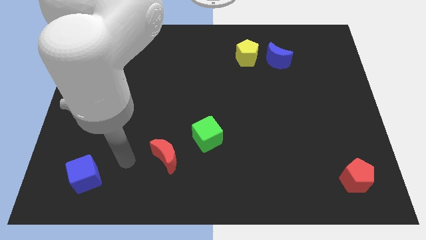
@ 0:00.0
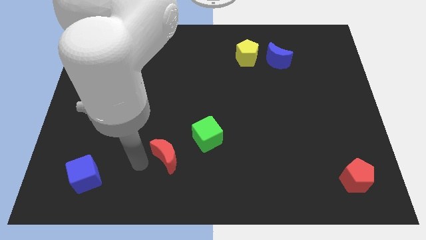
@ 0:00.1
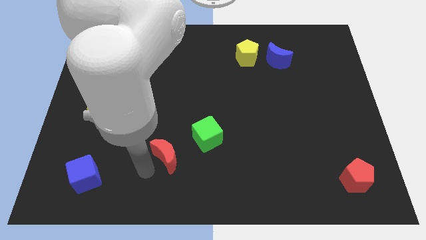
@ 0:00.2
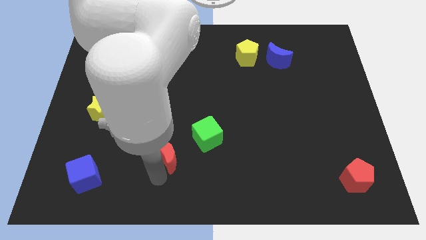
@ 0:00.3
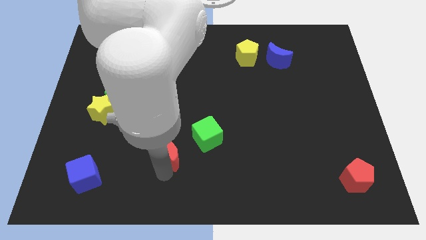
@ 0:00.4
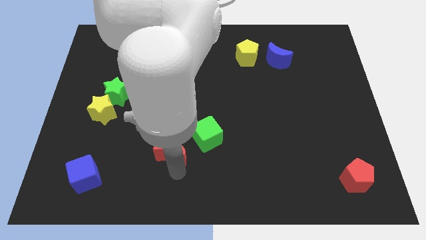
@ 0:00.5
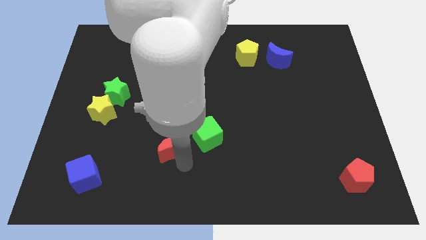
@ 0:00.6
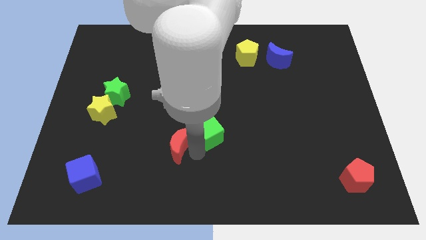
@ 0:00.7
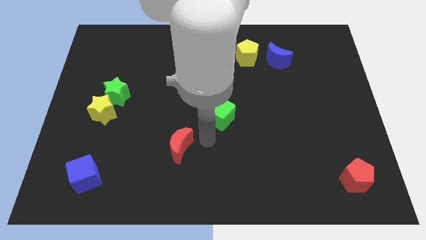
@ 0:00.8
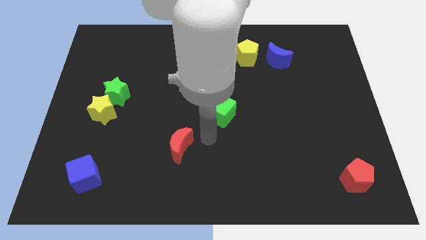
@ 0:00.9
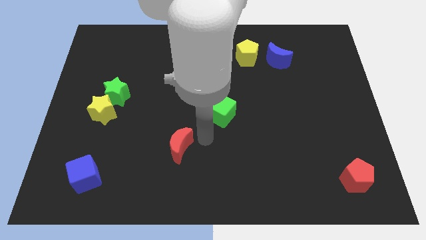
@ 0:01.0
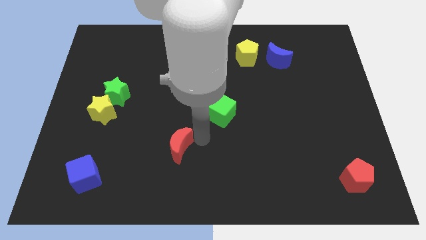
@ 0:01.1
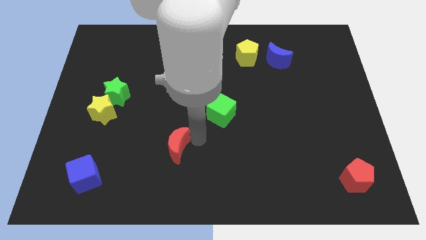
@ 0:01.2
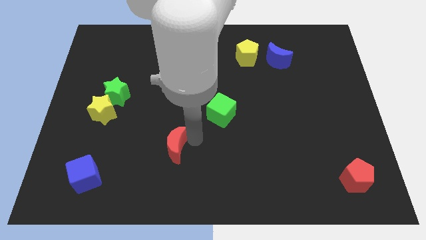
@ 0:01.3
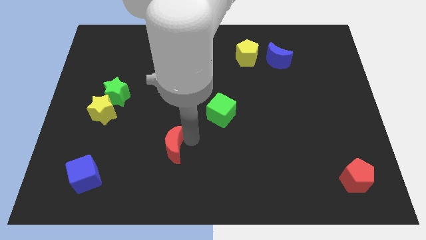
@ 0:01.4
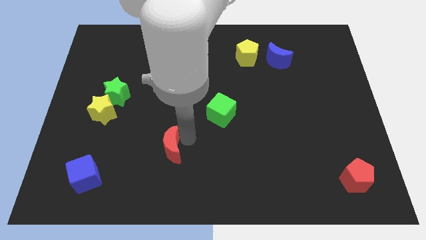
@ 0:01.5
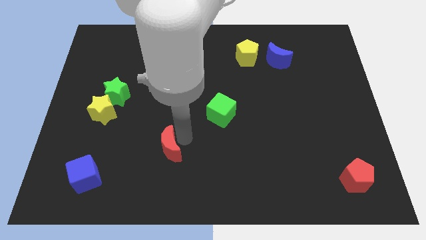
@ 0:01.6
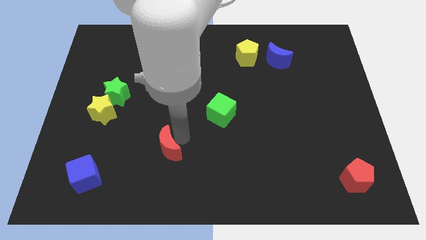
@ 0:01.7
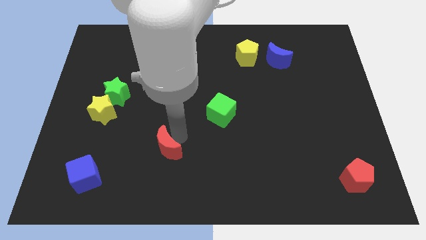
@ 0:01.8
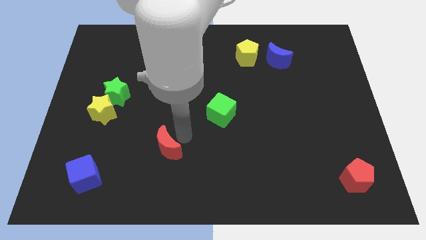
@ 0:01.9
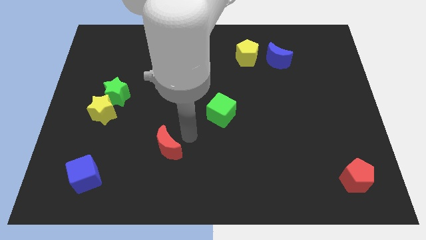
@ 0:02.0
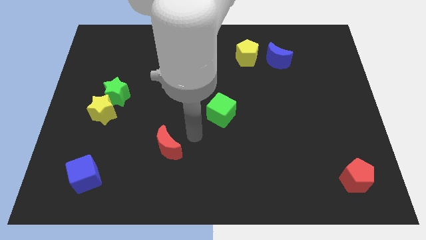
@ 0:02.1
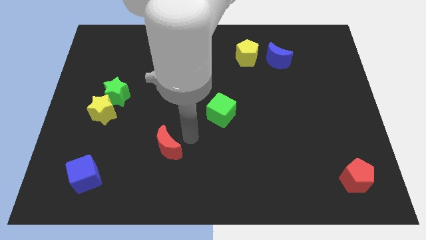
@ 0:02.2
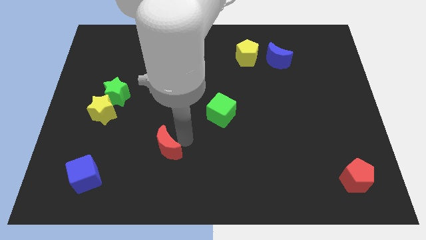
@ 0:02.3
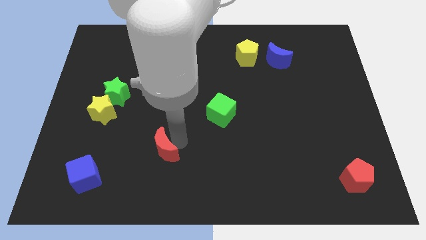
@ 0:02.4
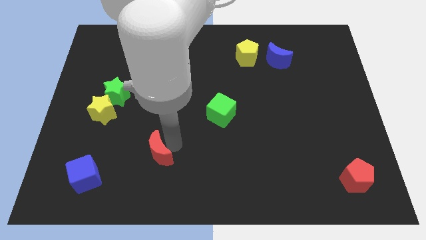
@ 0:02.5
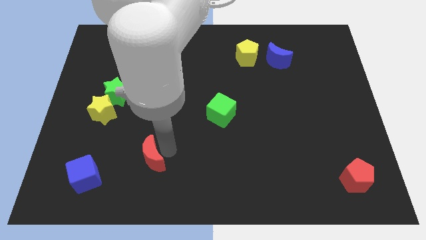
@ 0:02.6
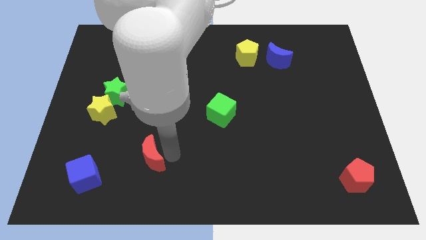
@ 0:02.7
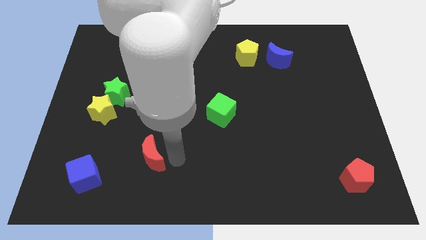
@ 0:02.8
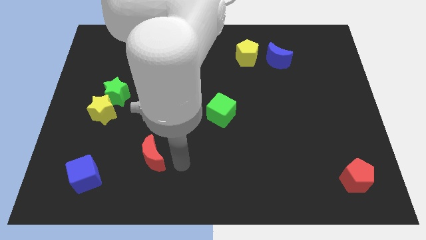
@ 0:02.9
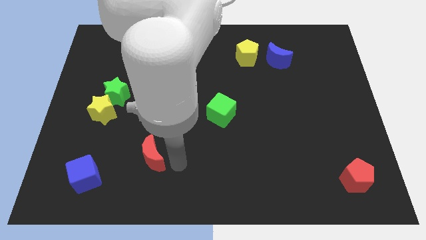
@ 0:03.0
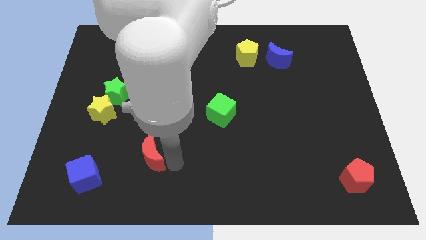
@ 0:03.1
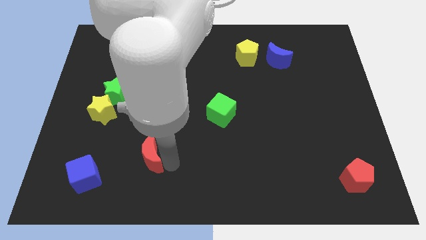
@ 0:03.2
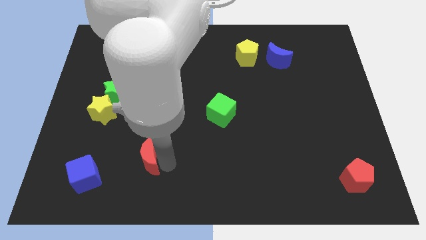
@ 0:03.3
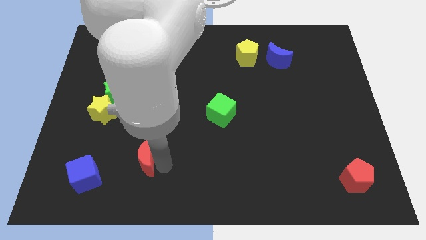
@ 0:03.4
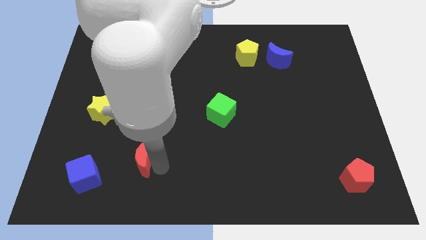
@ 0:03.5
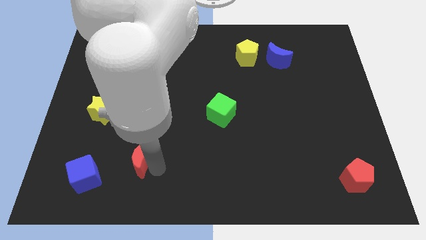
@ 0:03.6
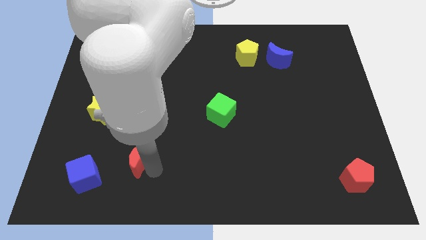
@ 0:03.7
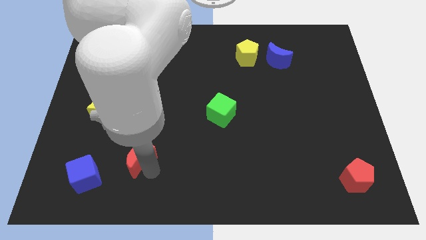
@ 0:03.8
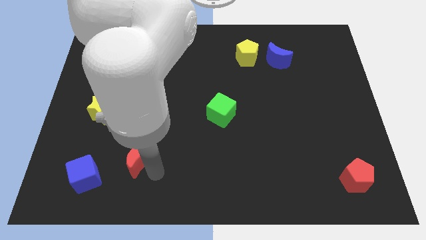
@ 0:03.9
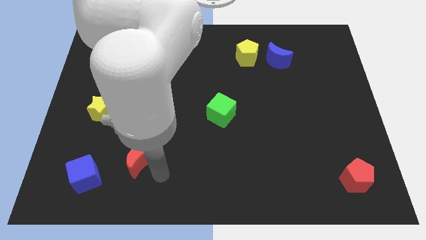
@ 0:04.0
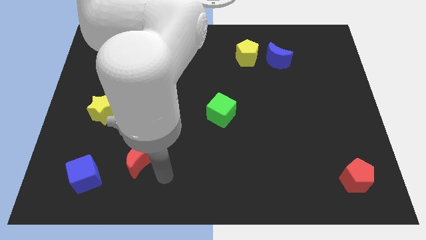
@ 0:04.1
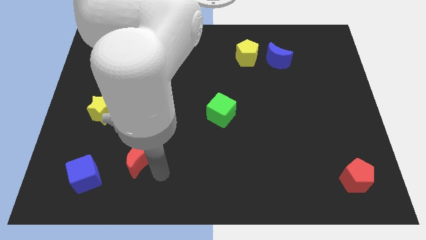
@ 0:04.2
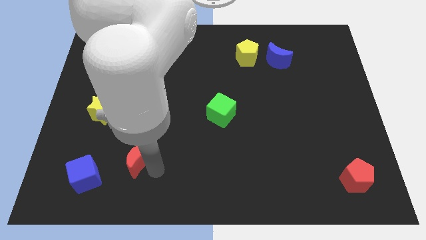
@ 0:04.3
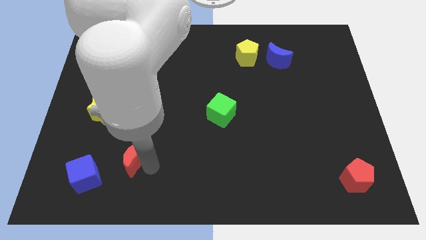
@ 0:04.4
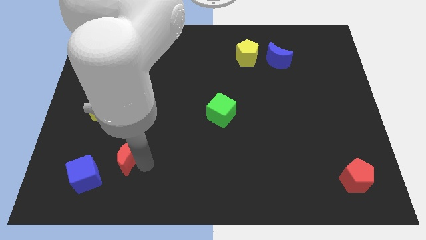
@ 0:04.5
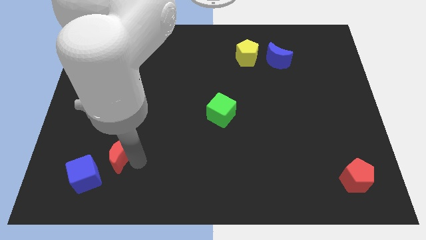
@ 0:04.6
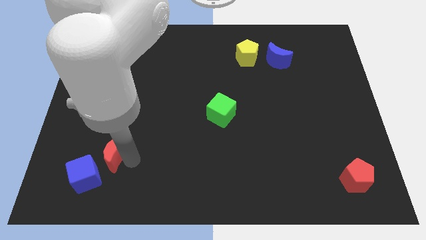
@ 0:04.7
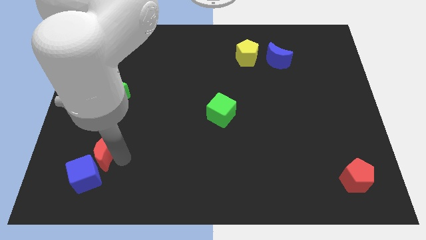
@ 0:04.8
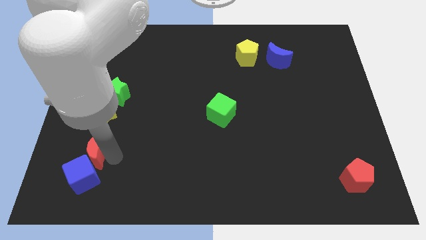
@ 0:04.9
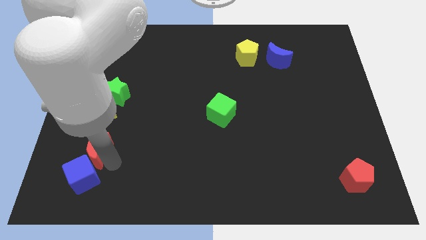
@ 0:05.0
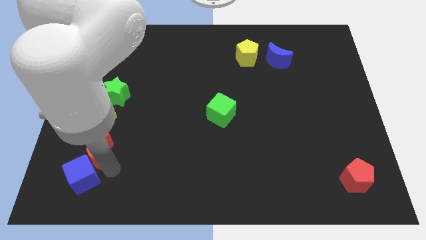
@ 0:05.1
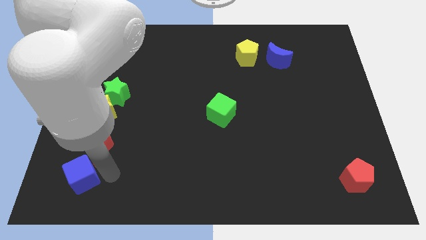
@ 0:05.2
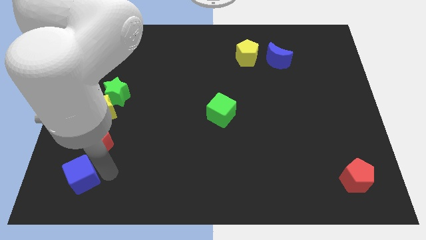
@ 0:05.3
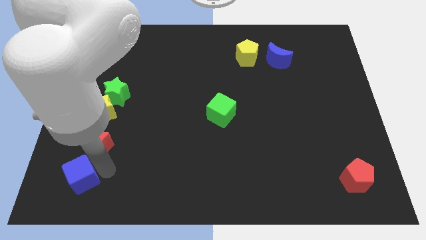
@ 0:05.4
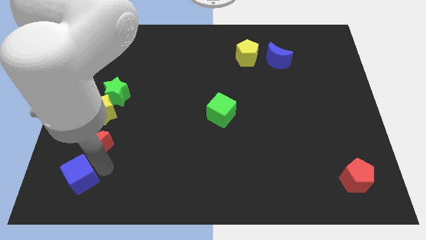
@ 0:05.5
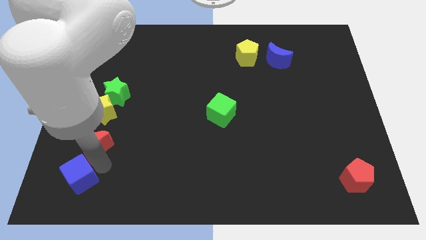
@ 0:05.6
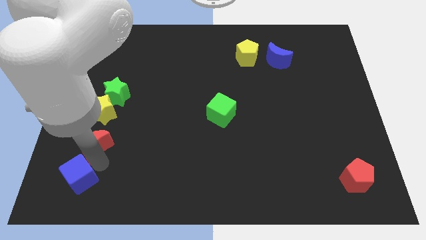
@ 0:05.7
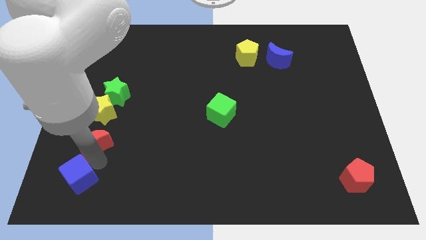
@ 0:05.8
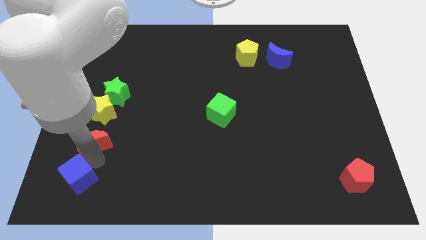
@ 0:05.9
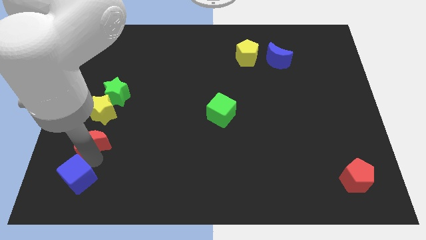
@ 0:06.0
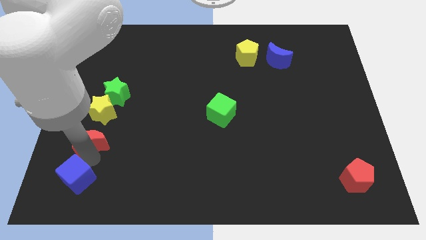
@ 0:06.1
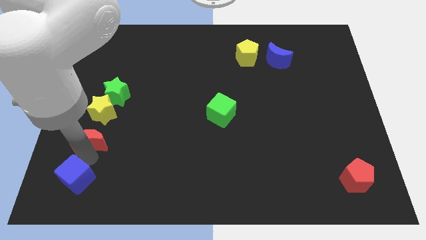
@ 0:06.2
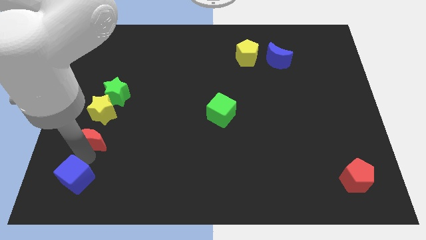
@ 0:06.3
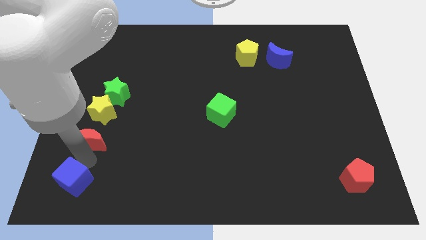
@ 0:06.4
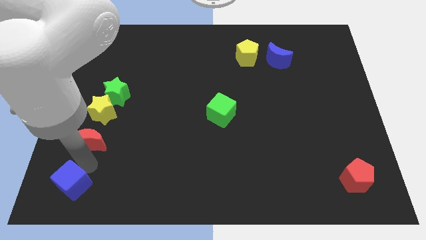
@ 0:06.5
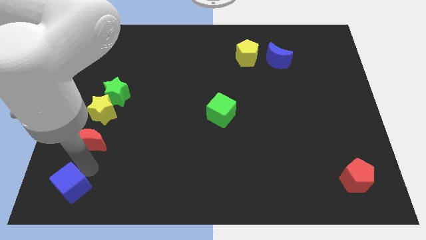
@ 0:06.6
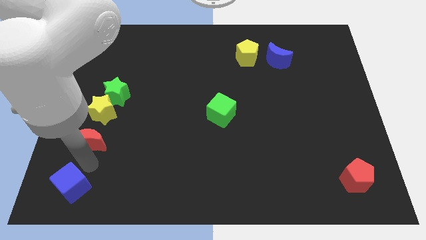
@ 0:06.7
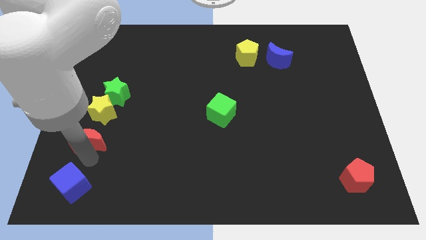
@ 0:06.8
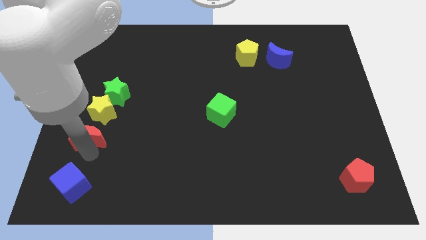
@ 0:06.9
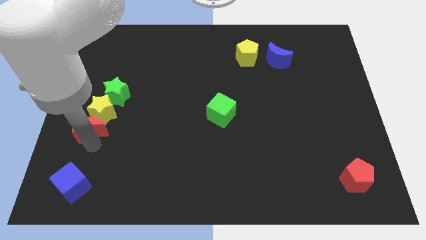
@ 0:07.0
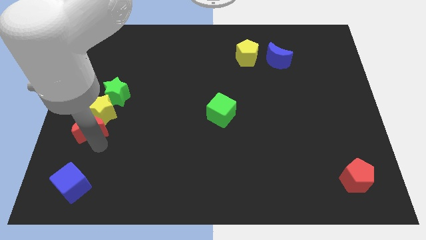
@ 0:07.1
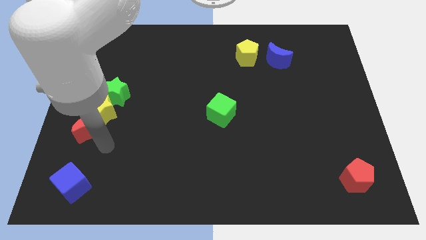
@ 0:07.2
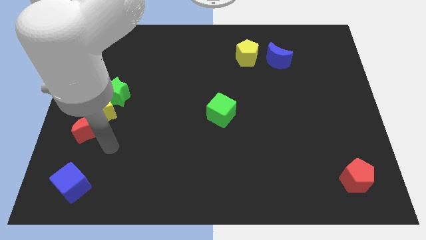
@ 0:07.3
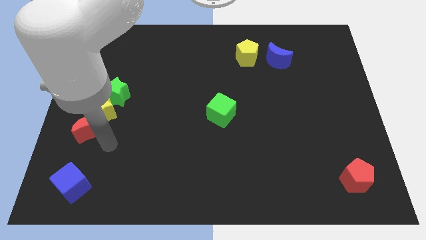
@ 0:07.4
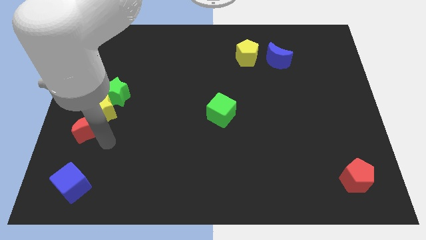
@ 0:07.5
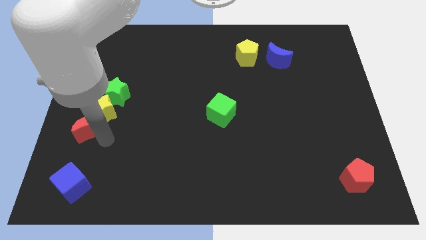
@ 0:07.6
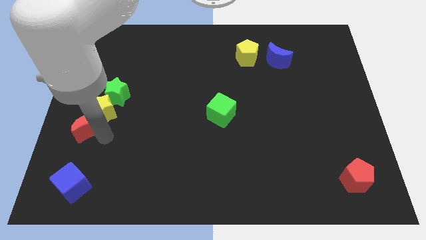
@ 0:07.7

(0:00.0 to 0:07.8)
move the red moon to the center left
